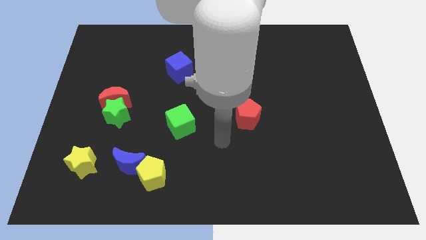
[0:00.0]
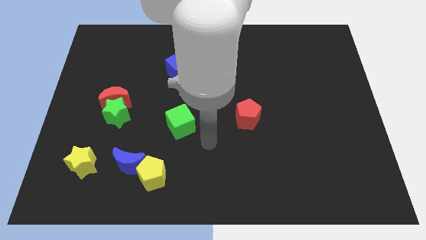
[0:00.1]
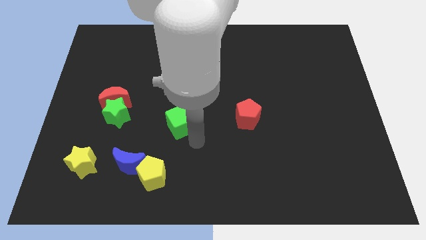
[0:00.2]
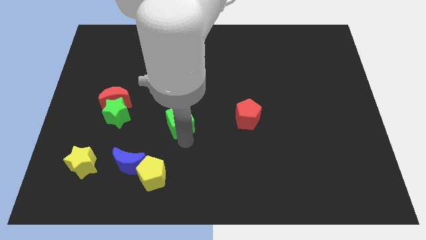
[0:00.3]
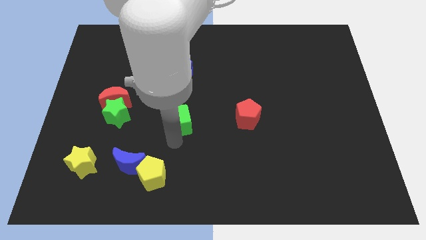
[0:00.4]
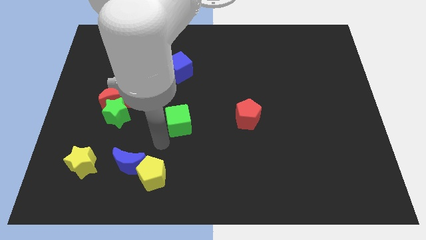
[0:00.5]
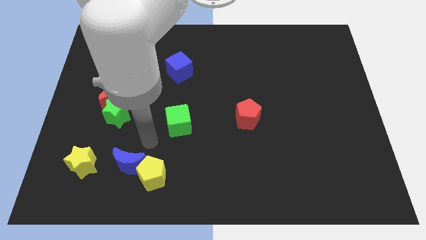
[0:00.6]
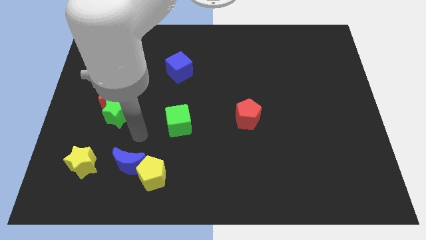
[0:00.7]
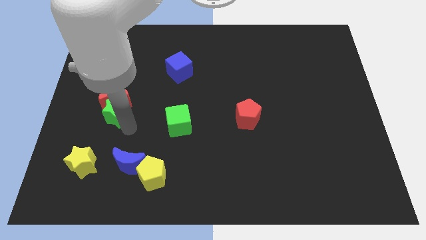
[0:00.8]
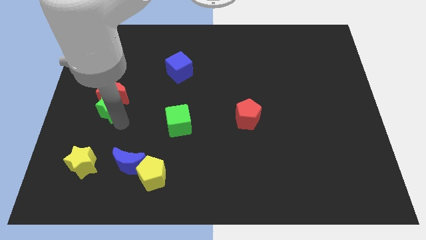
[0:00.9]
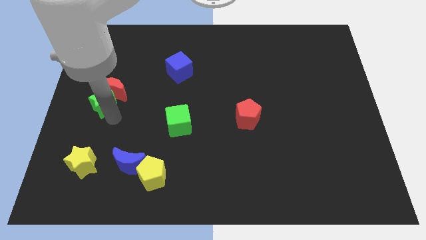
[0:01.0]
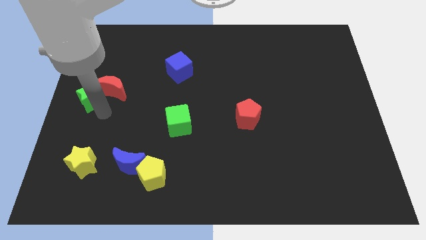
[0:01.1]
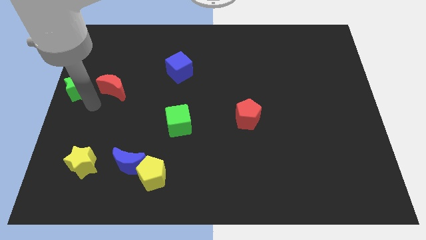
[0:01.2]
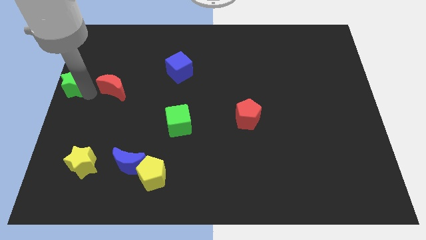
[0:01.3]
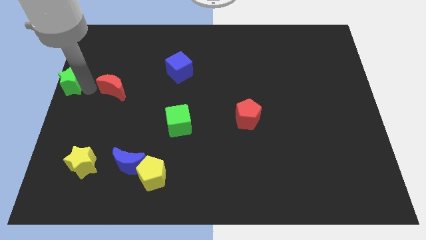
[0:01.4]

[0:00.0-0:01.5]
pull the red moon apart from the green star

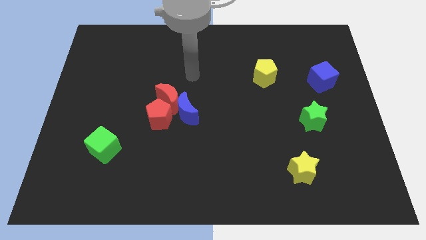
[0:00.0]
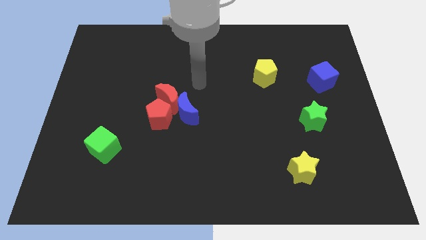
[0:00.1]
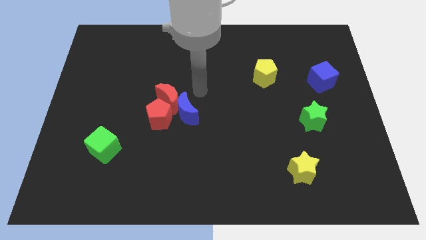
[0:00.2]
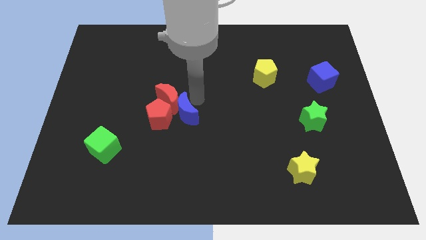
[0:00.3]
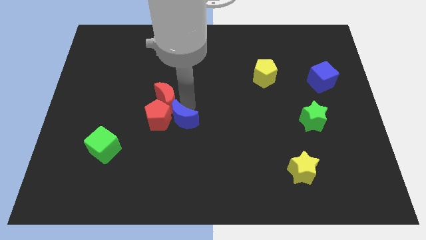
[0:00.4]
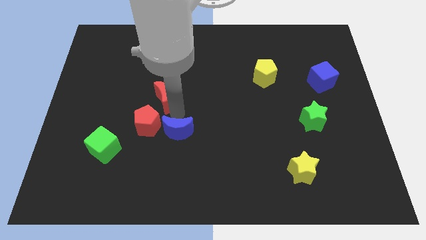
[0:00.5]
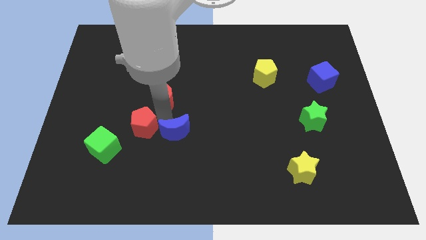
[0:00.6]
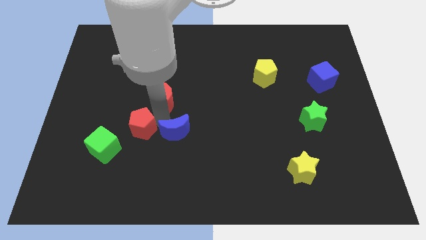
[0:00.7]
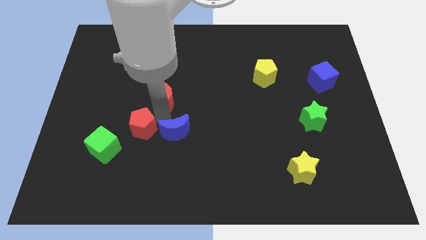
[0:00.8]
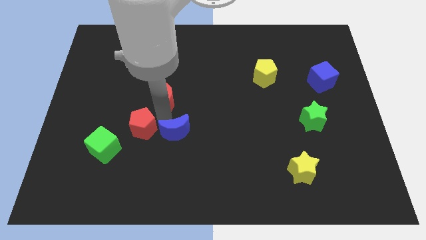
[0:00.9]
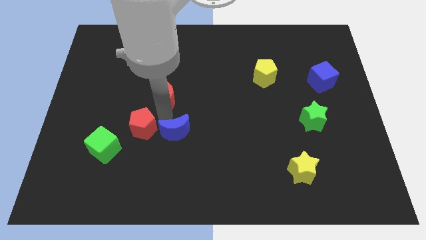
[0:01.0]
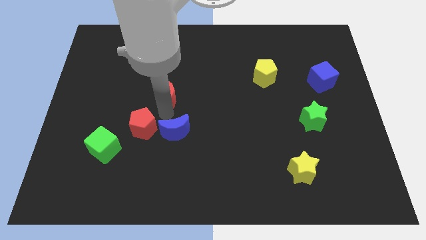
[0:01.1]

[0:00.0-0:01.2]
separate the red moon from the blue moon and red pentagon

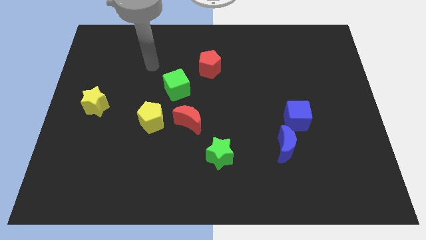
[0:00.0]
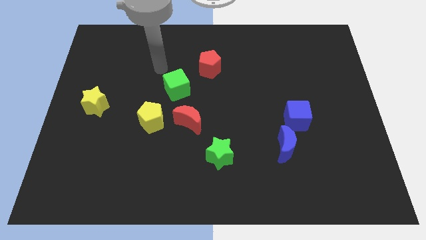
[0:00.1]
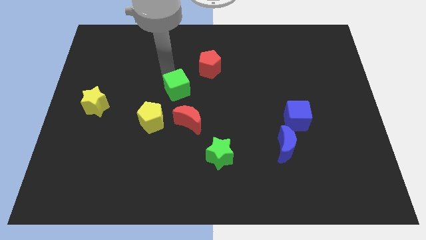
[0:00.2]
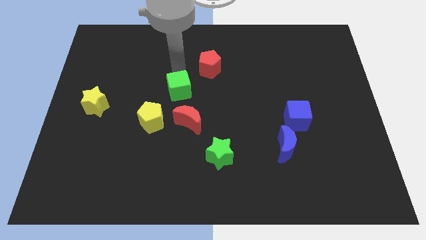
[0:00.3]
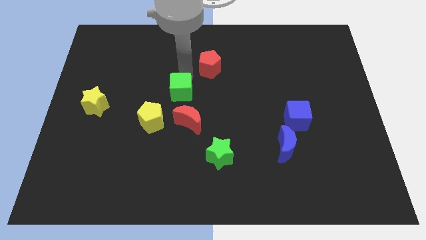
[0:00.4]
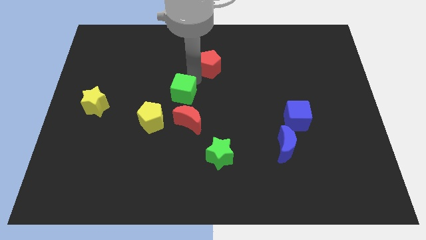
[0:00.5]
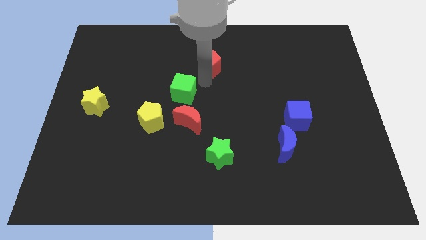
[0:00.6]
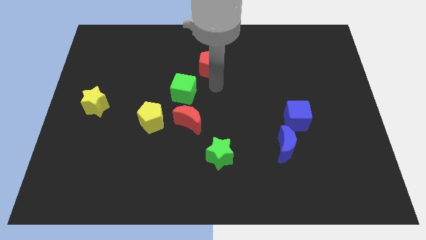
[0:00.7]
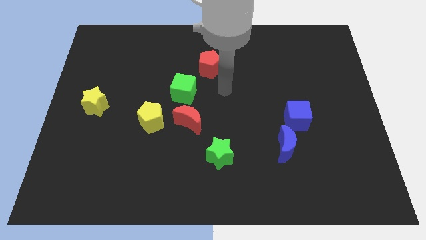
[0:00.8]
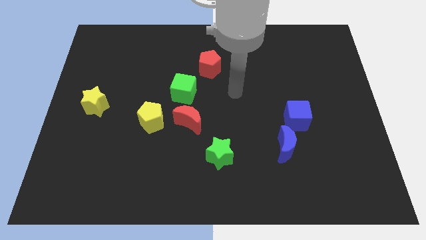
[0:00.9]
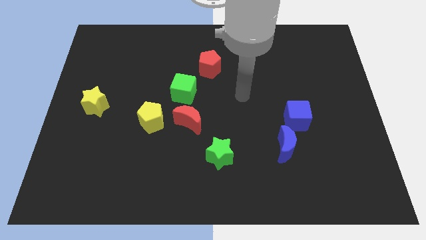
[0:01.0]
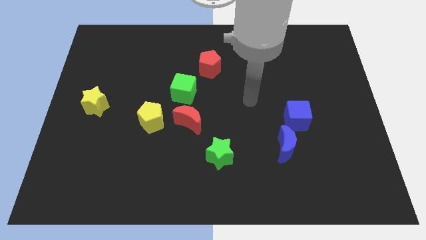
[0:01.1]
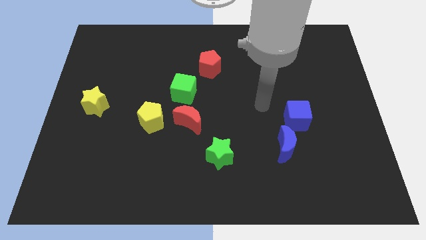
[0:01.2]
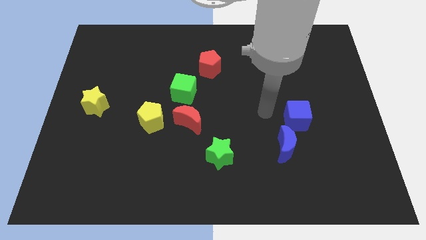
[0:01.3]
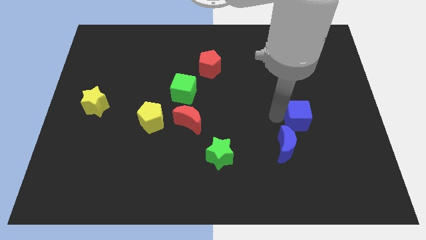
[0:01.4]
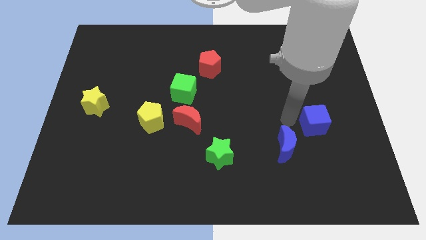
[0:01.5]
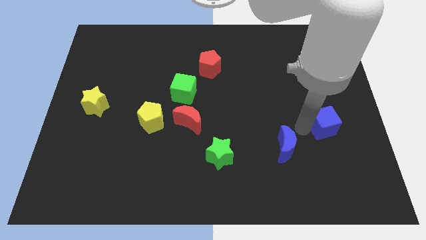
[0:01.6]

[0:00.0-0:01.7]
move the blue moon away from the blue cube

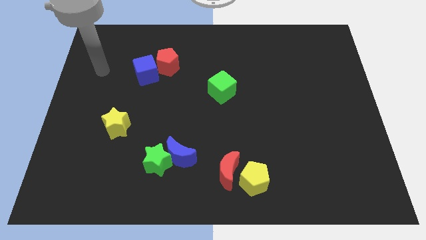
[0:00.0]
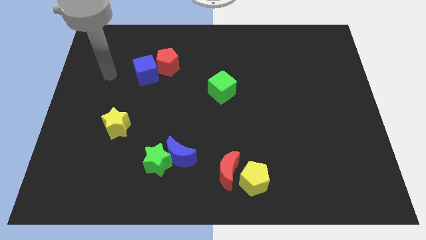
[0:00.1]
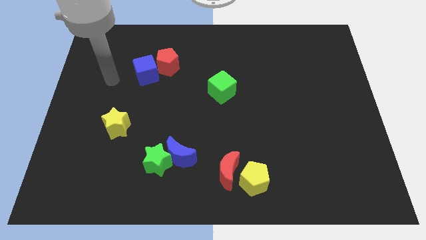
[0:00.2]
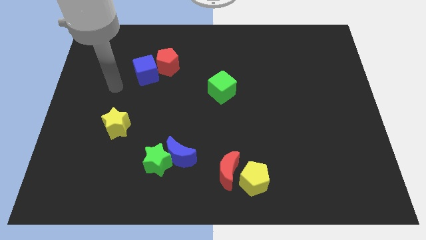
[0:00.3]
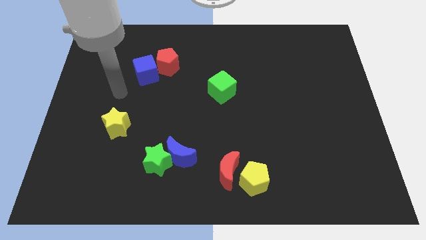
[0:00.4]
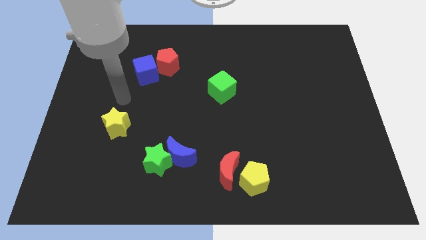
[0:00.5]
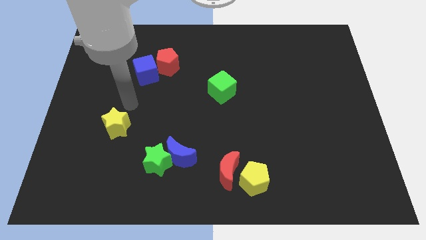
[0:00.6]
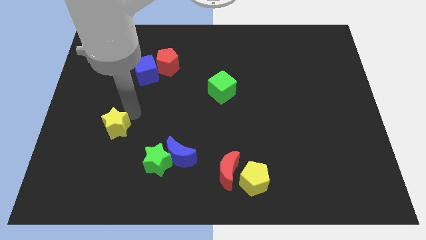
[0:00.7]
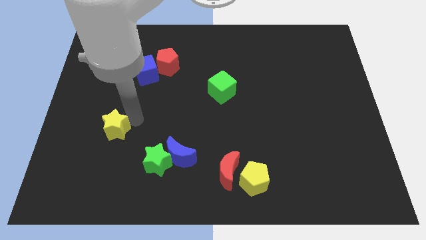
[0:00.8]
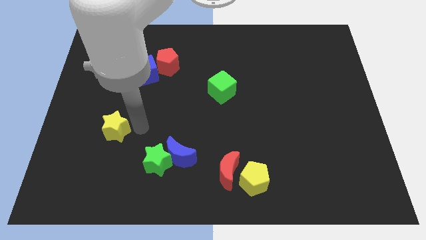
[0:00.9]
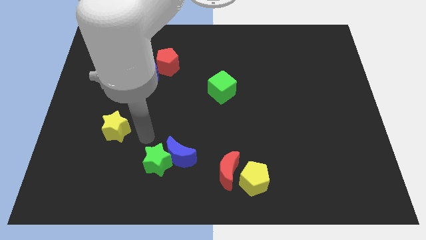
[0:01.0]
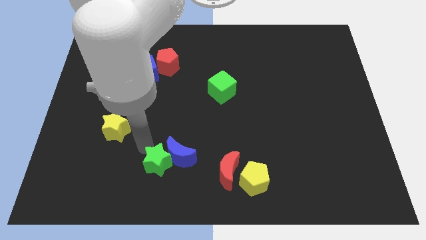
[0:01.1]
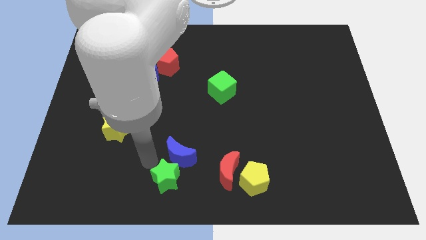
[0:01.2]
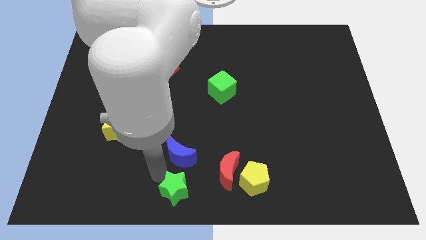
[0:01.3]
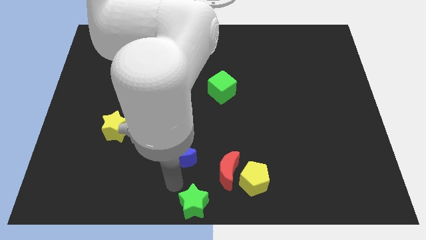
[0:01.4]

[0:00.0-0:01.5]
move the blue moon away from the green star

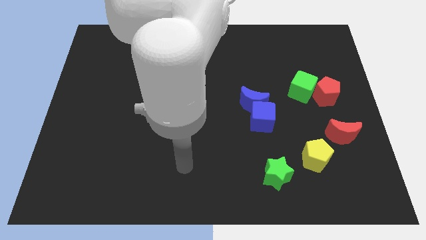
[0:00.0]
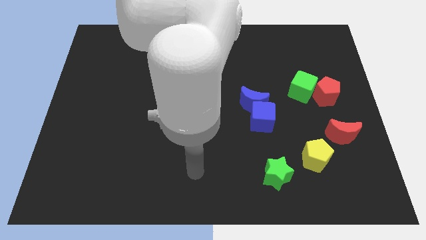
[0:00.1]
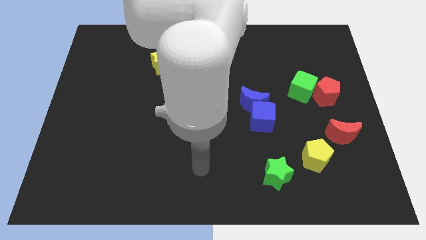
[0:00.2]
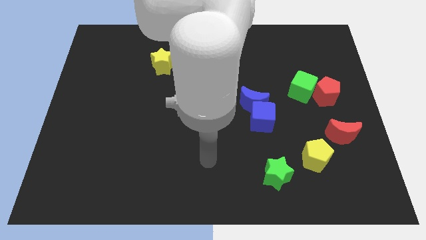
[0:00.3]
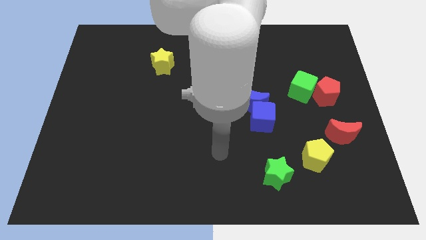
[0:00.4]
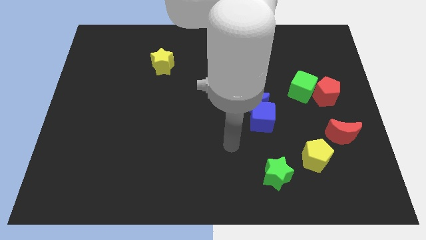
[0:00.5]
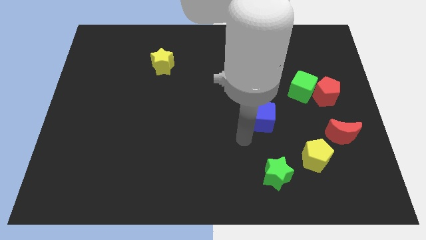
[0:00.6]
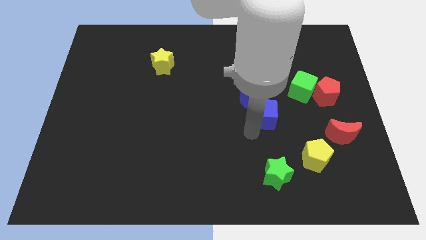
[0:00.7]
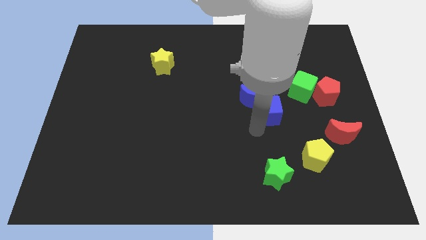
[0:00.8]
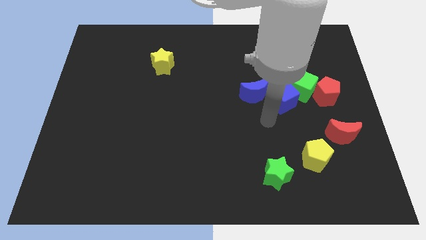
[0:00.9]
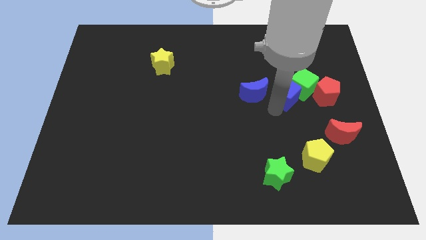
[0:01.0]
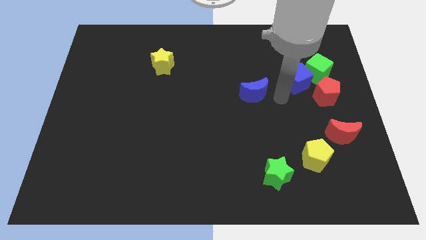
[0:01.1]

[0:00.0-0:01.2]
separate the blue moon from the blue cube

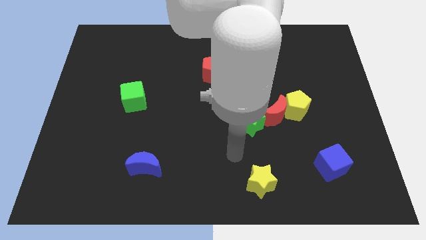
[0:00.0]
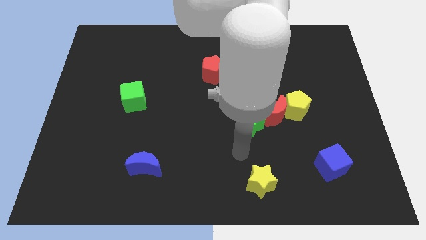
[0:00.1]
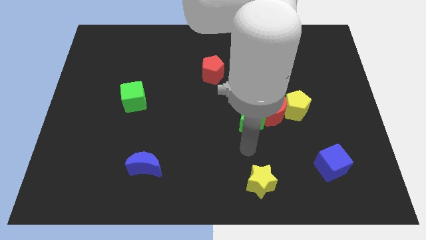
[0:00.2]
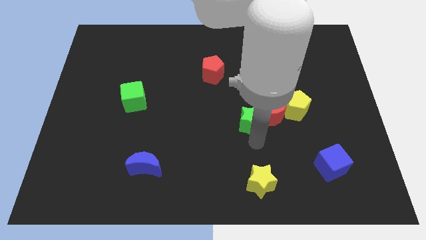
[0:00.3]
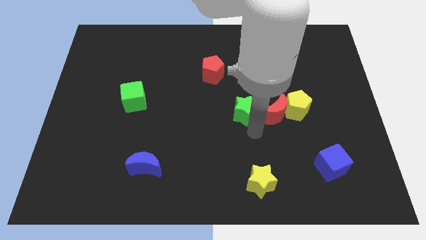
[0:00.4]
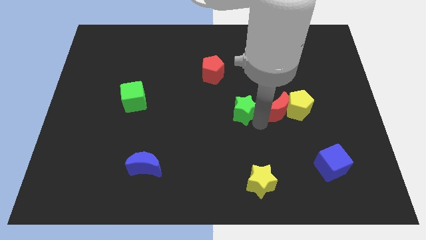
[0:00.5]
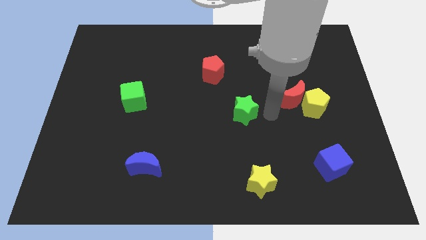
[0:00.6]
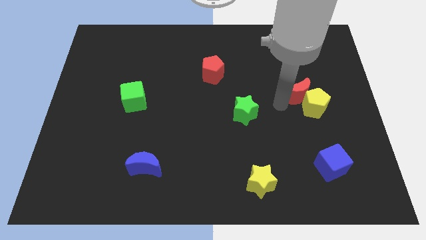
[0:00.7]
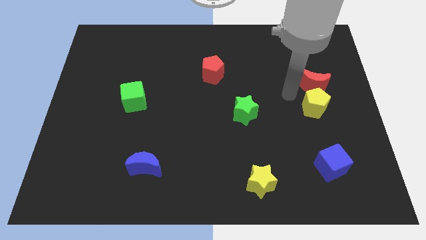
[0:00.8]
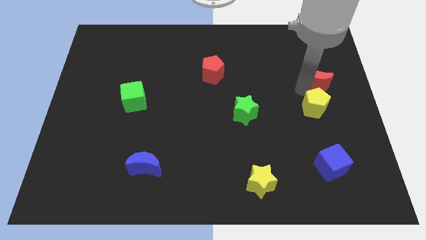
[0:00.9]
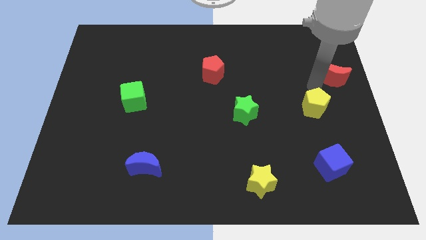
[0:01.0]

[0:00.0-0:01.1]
move the yellow pentagon away from the red moon

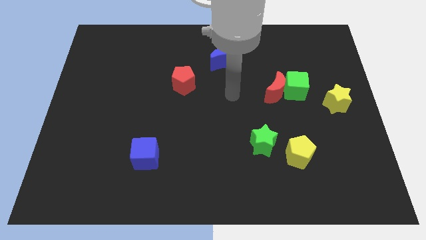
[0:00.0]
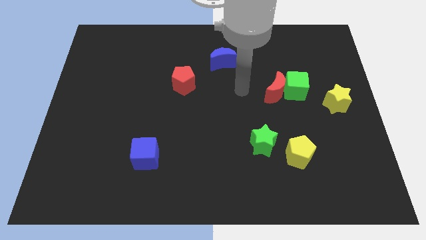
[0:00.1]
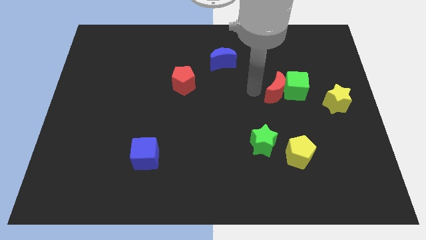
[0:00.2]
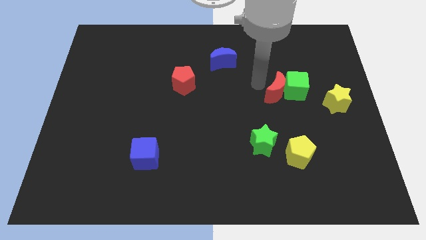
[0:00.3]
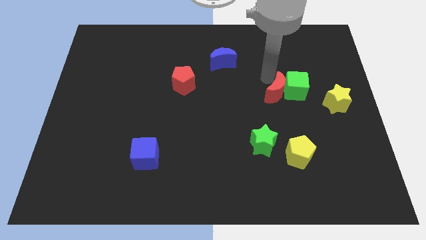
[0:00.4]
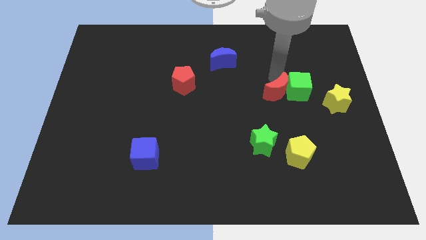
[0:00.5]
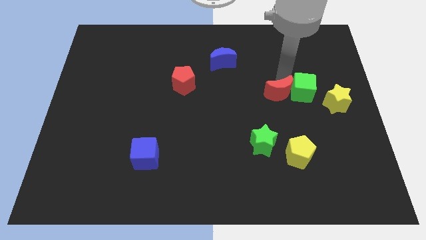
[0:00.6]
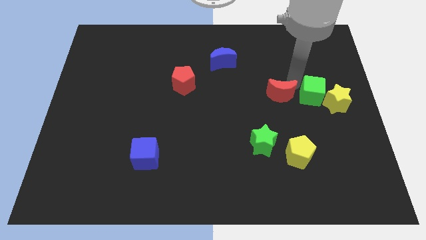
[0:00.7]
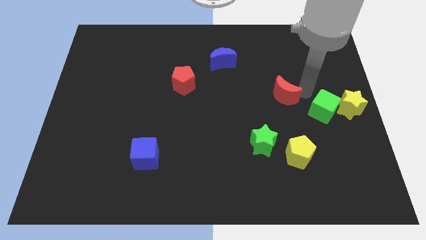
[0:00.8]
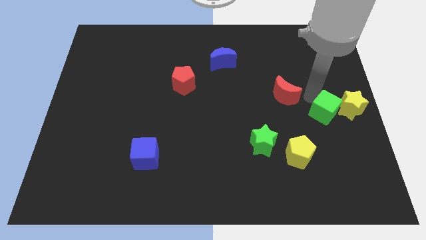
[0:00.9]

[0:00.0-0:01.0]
pull the red moon apart from the green cube

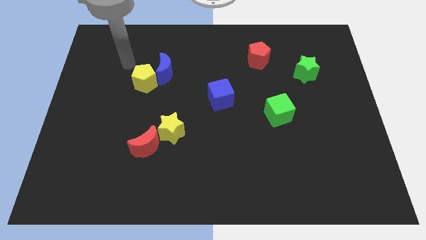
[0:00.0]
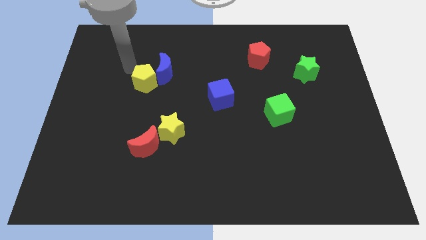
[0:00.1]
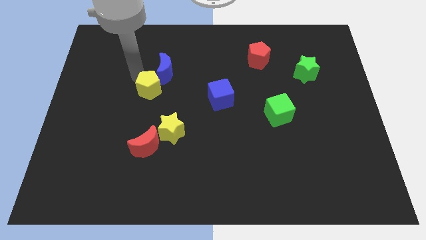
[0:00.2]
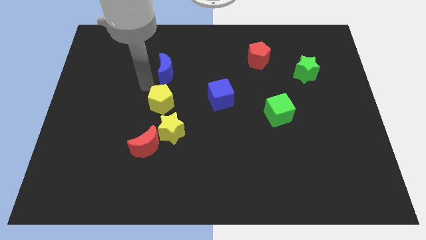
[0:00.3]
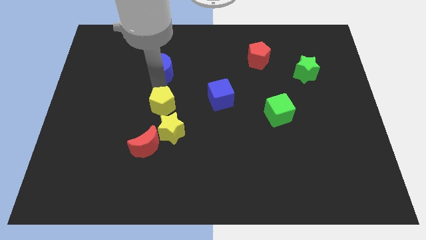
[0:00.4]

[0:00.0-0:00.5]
separate the blue moon from the yellow pentagon
